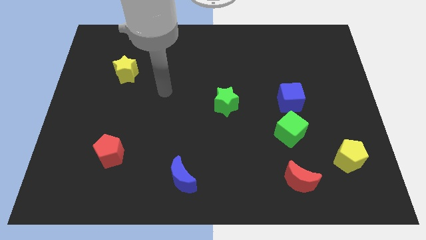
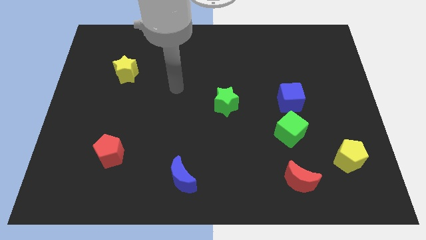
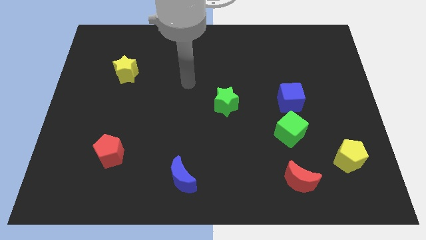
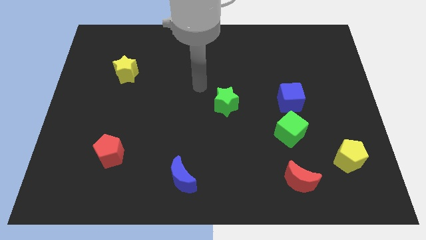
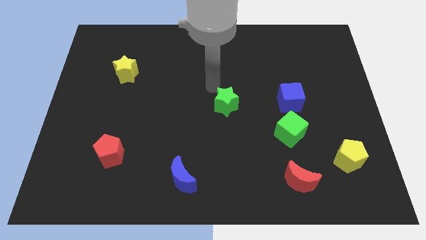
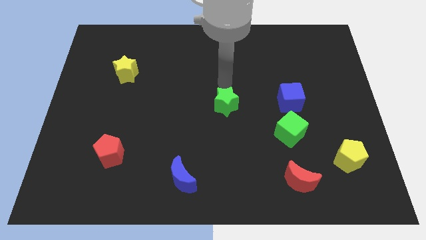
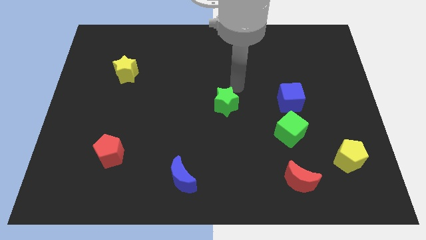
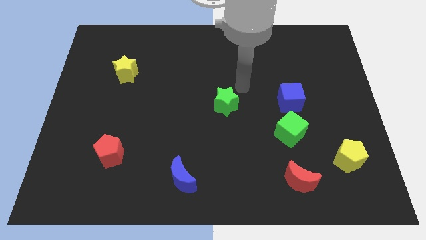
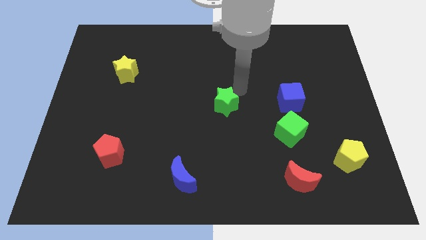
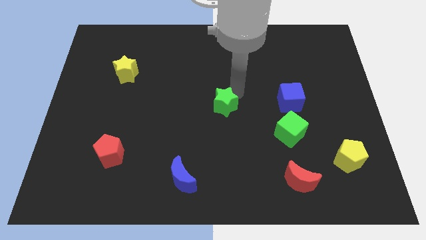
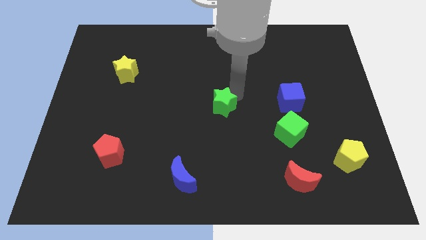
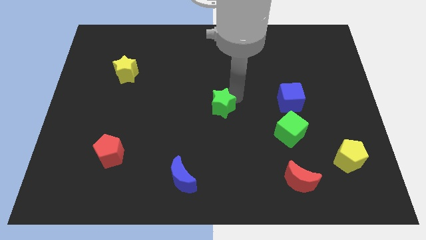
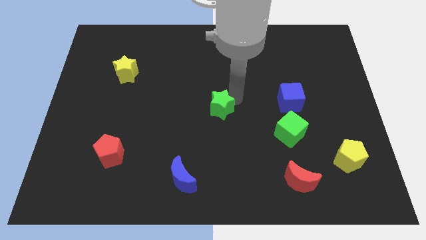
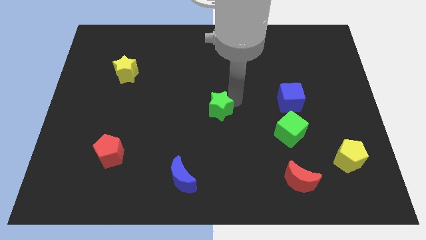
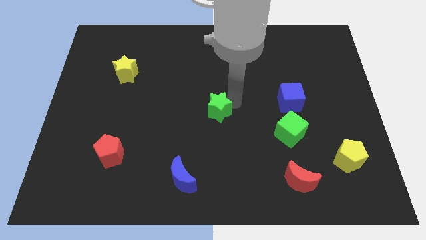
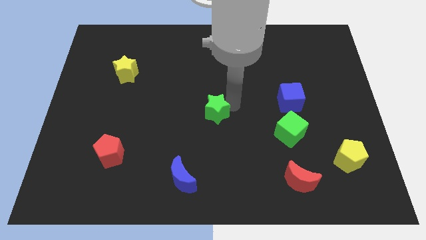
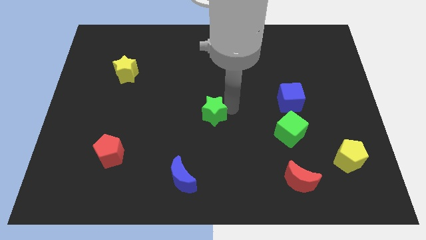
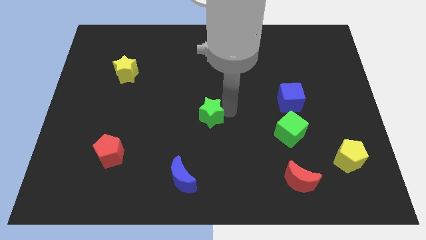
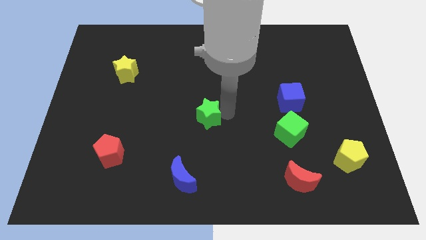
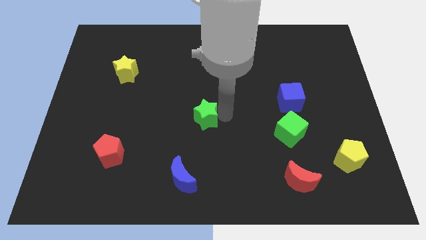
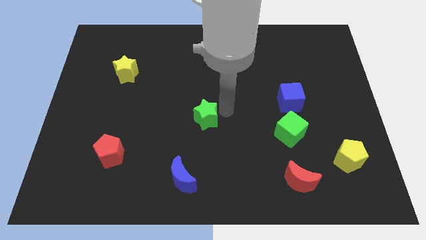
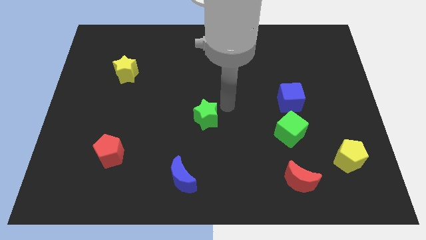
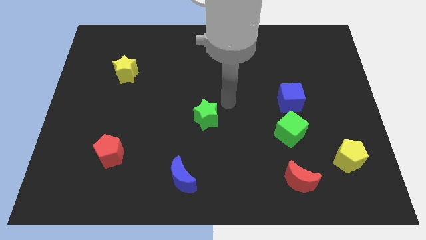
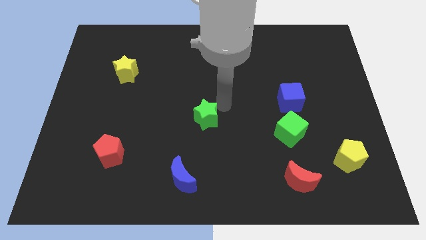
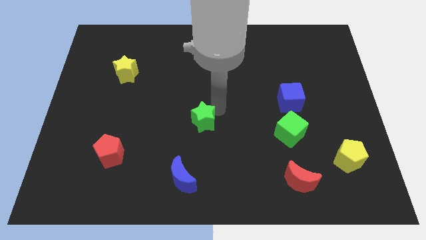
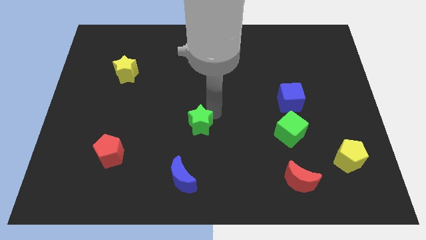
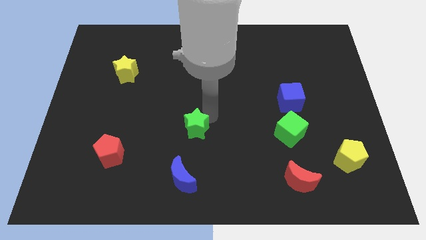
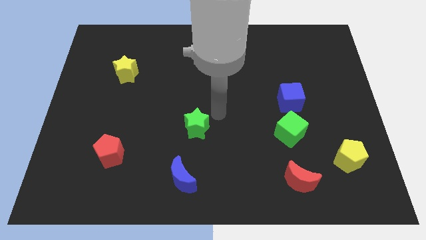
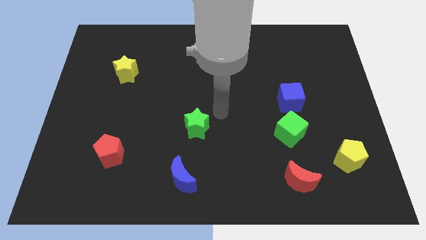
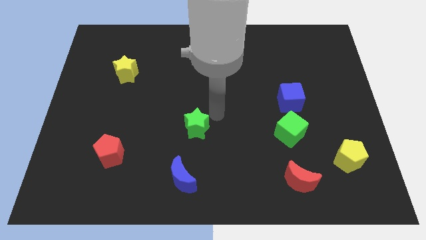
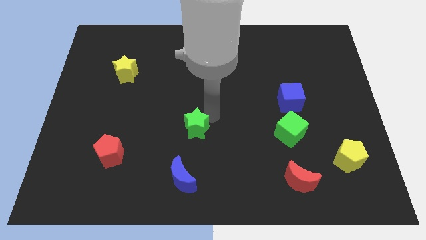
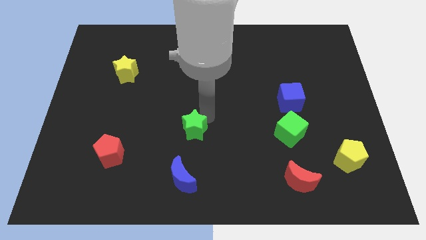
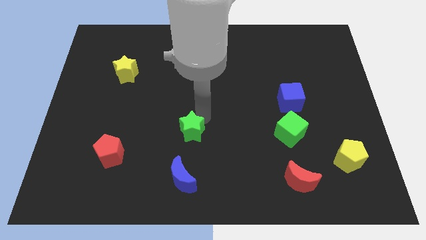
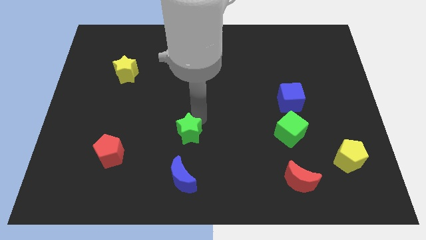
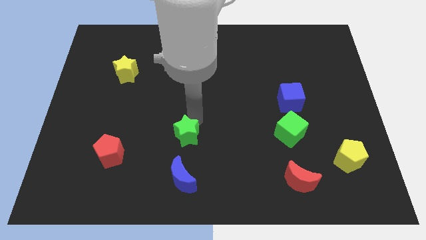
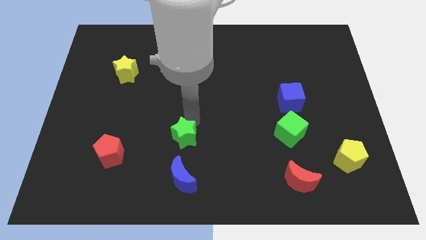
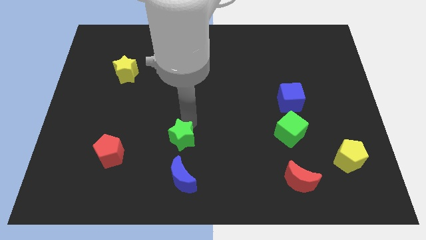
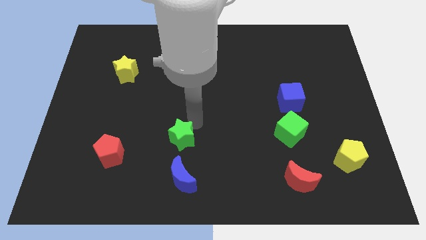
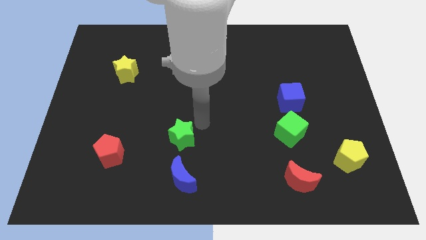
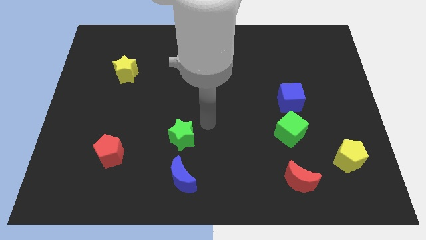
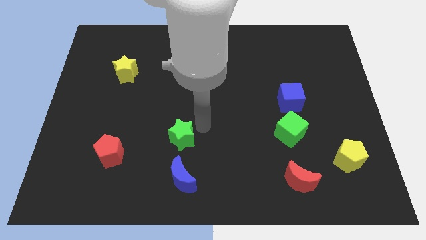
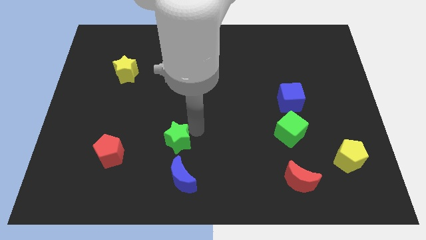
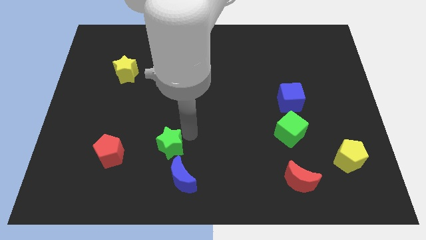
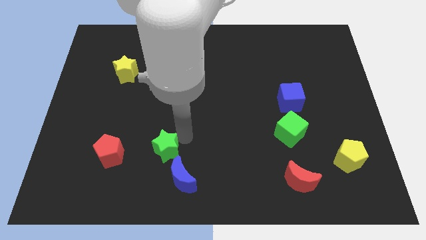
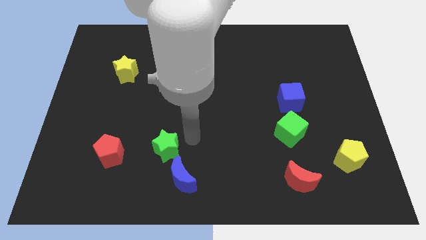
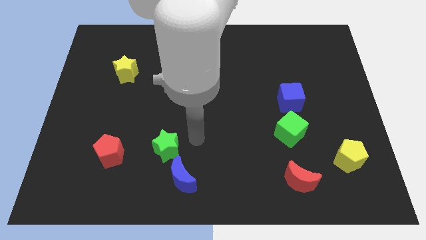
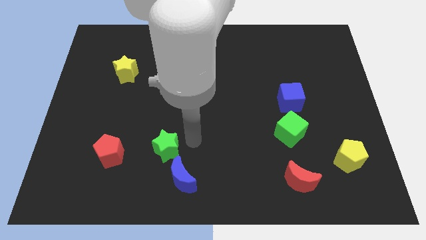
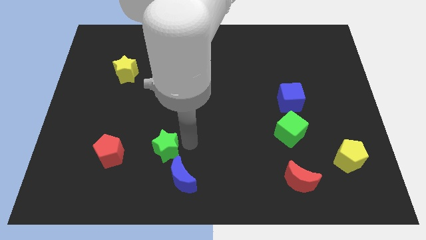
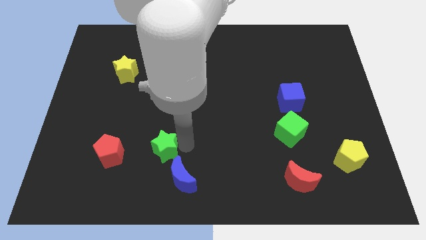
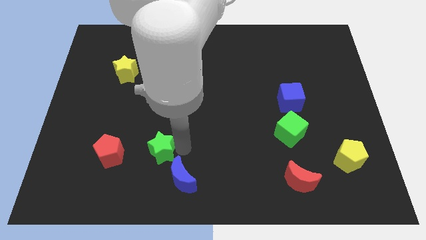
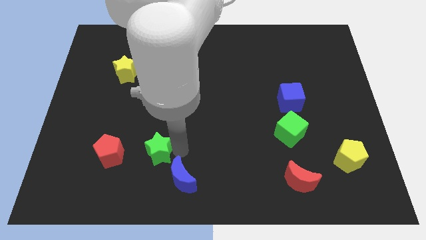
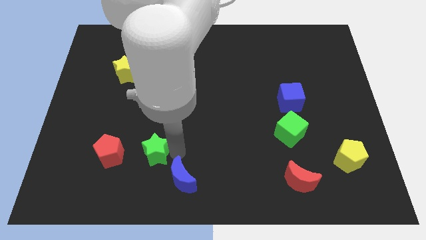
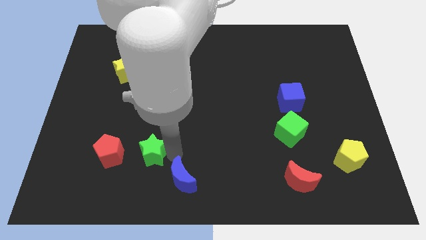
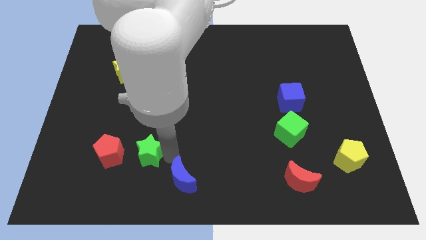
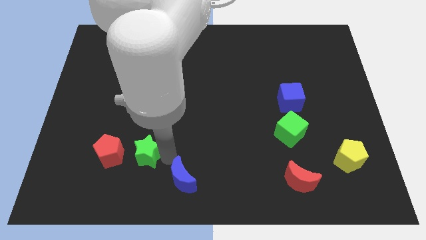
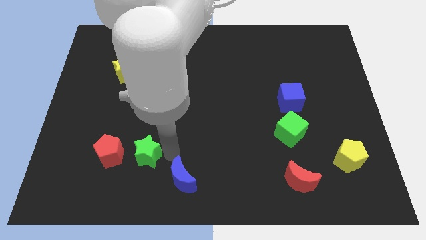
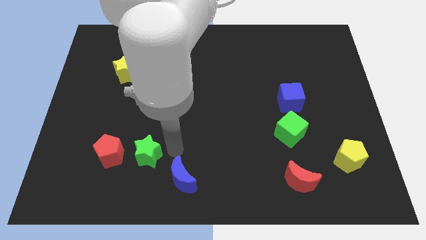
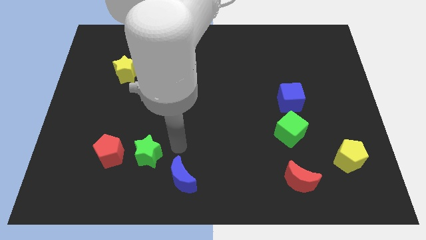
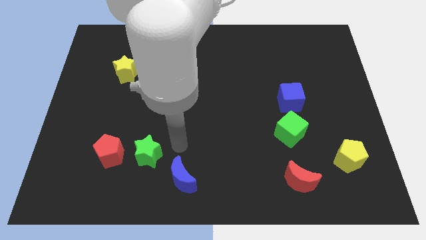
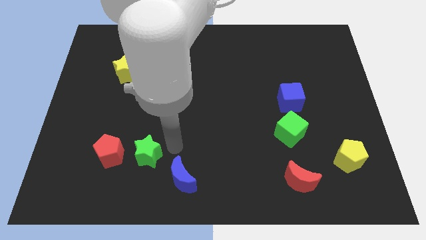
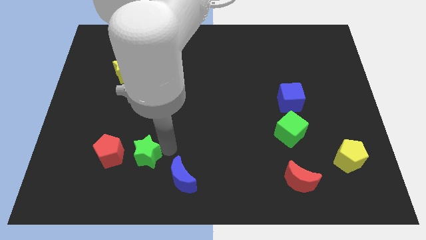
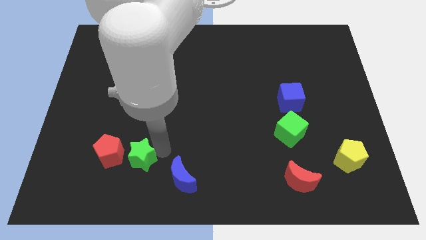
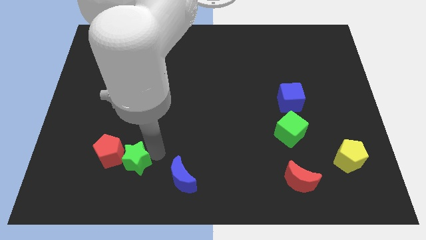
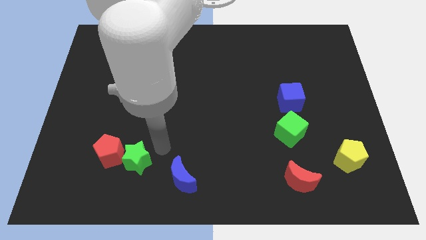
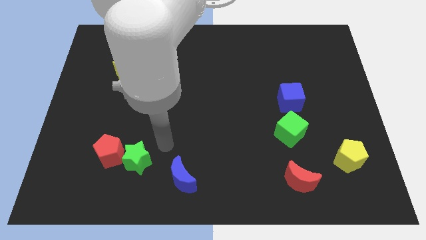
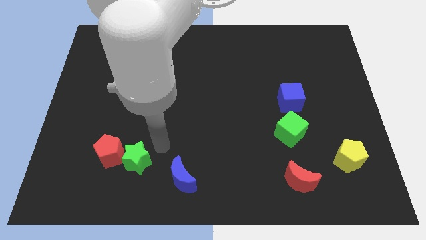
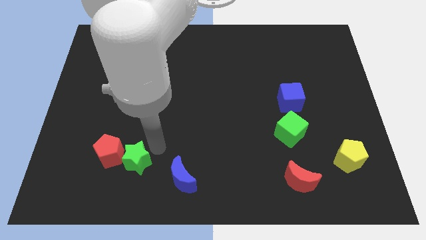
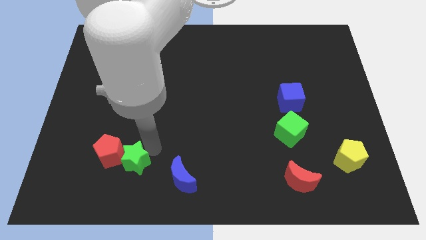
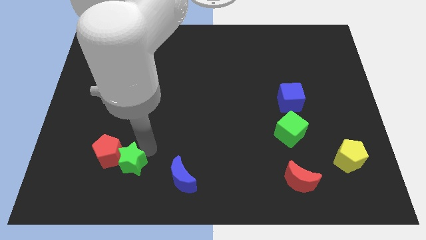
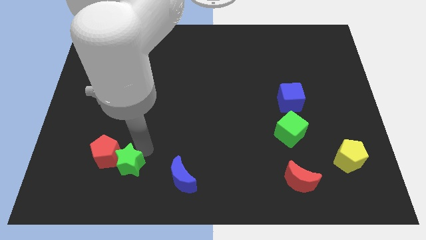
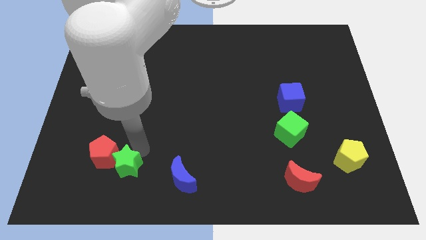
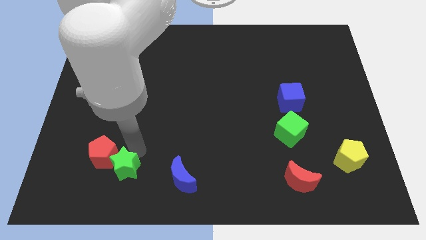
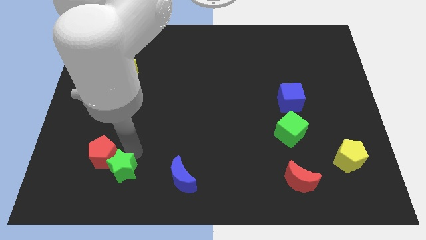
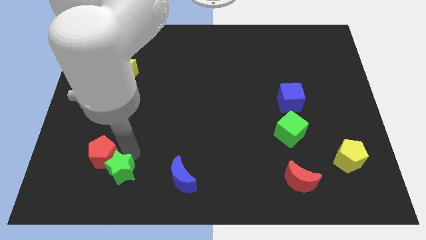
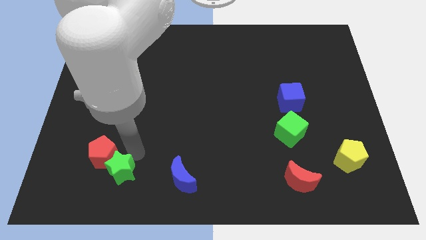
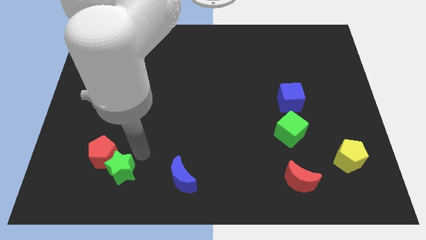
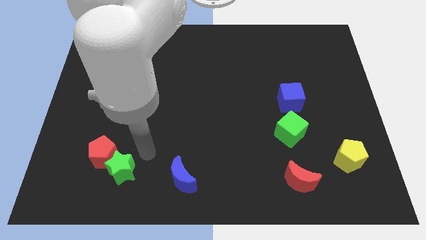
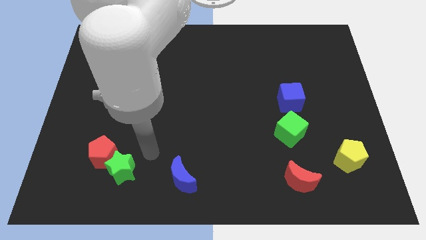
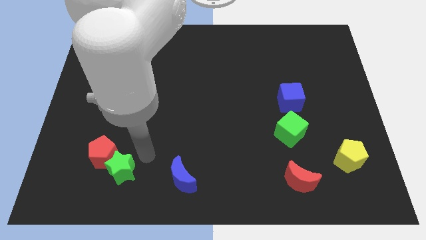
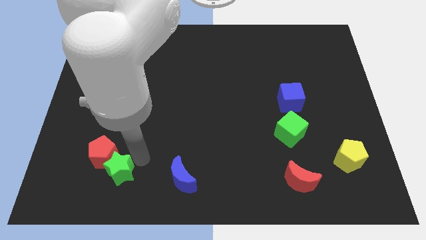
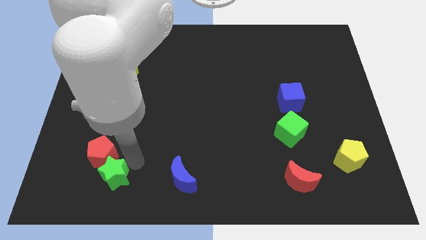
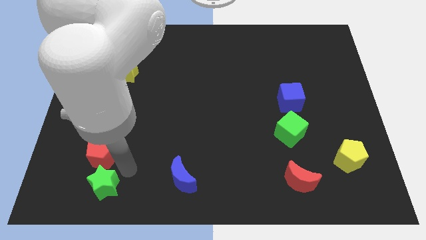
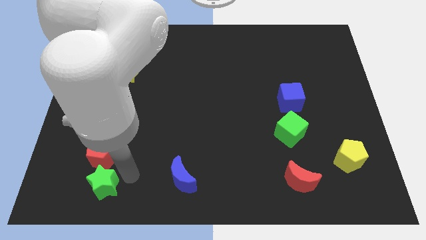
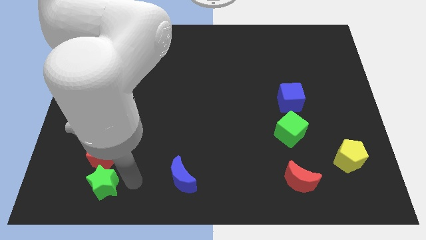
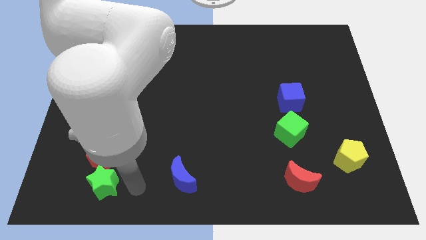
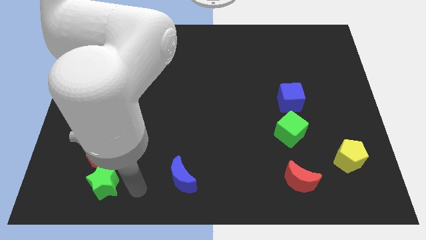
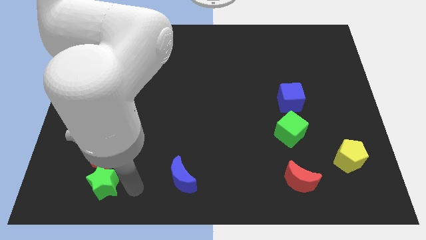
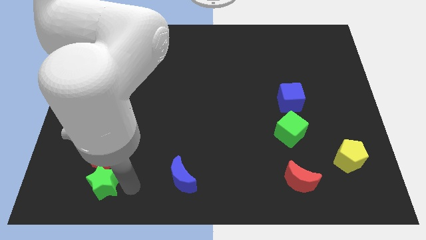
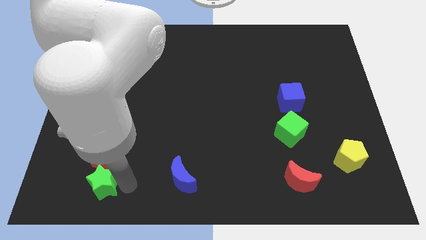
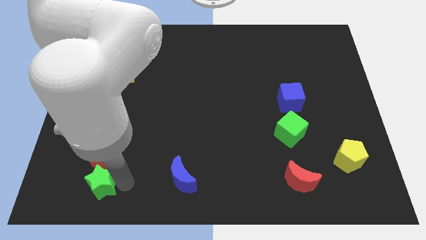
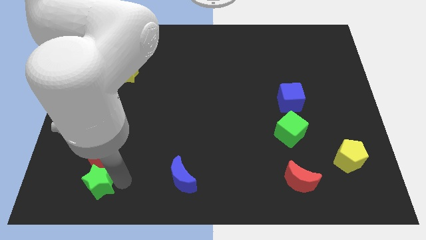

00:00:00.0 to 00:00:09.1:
put the green star to the bottom left of the red pentagon
